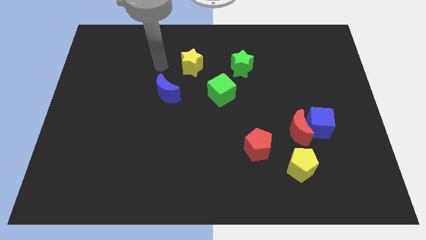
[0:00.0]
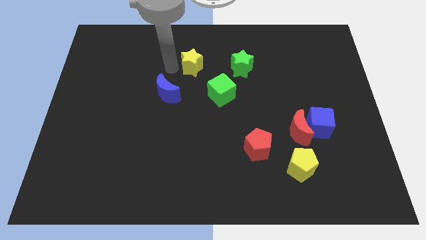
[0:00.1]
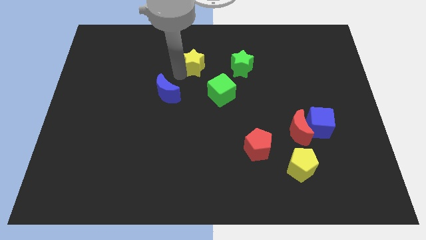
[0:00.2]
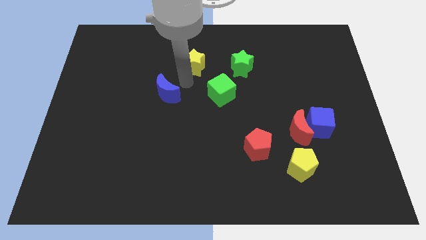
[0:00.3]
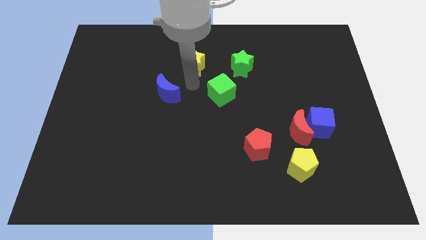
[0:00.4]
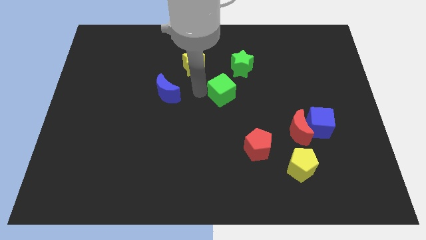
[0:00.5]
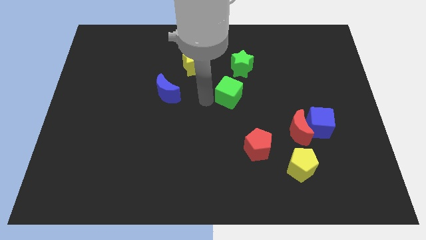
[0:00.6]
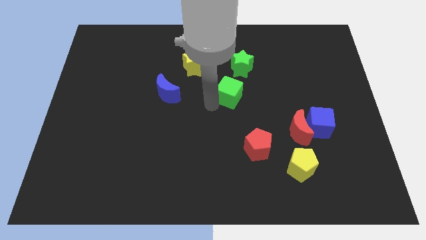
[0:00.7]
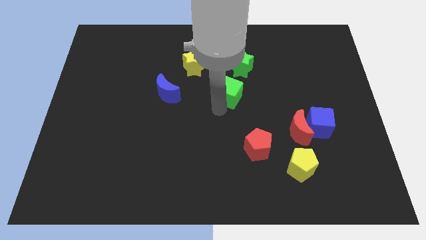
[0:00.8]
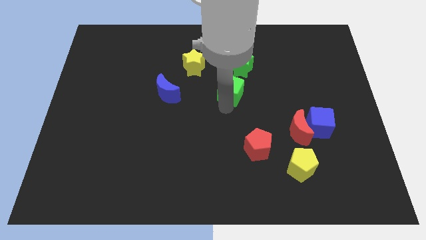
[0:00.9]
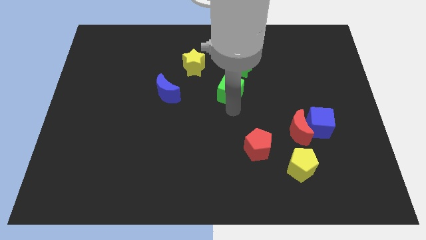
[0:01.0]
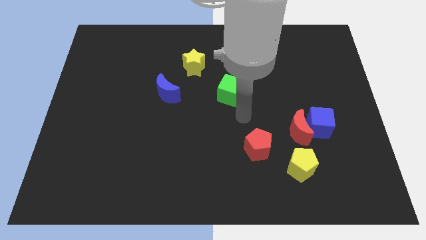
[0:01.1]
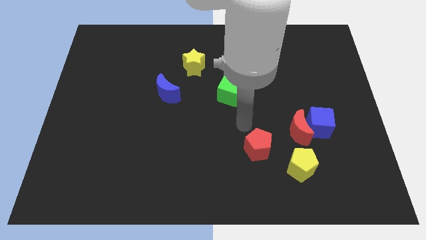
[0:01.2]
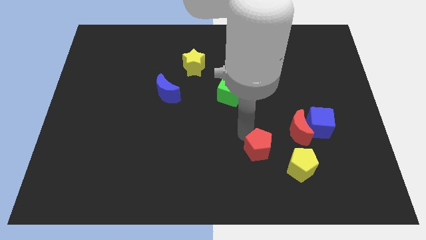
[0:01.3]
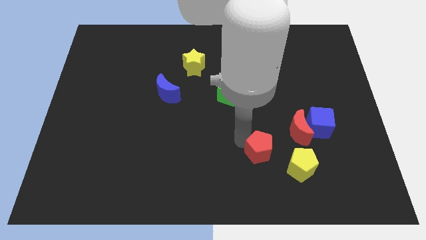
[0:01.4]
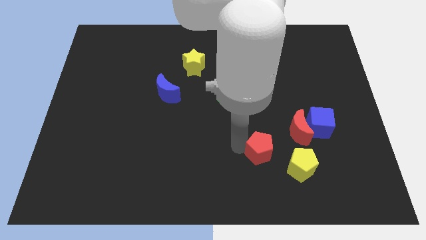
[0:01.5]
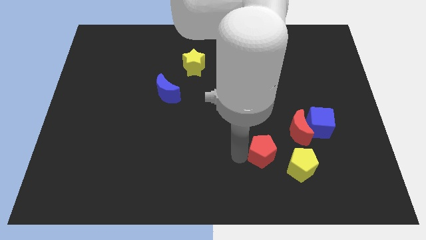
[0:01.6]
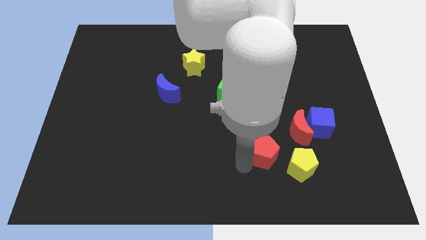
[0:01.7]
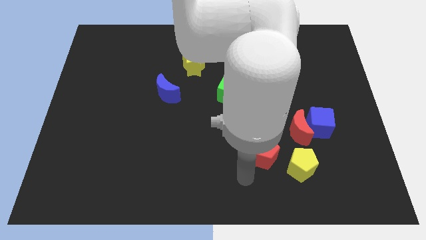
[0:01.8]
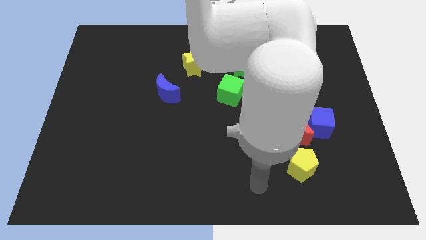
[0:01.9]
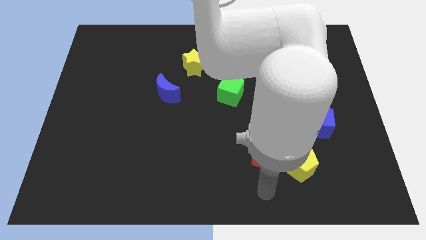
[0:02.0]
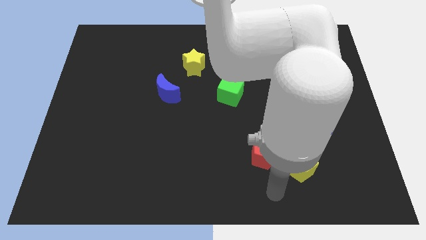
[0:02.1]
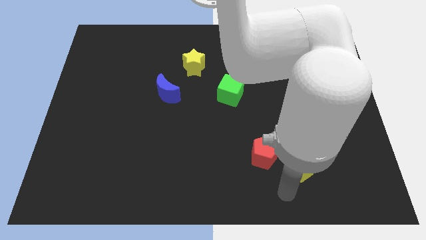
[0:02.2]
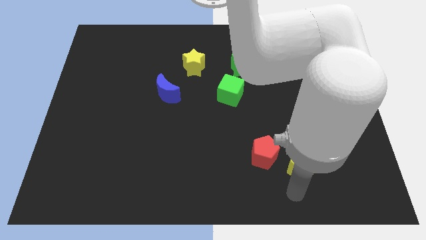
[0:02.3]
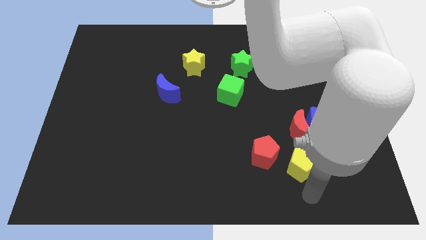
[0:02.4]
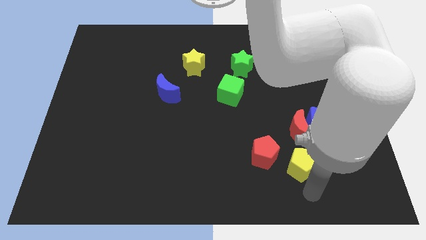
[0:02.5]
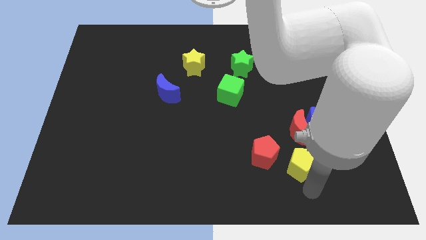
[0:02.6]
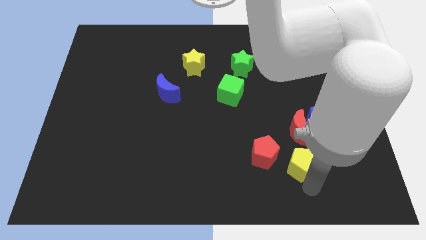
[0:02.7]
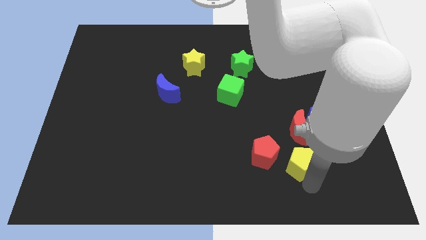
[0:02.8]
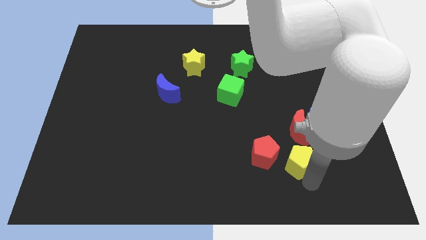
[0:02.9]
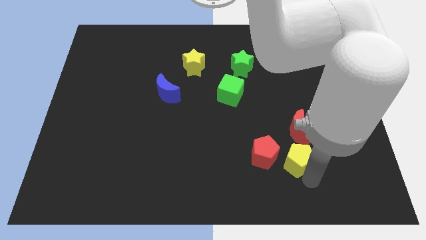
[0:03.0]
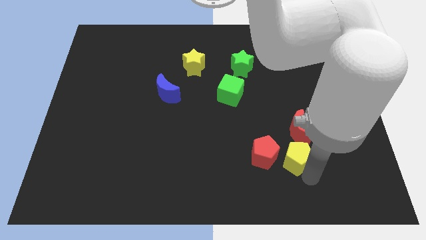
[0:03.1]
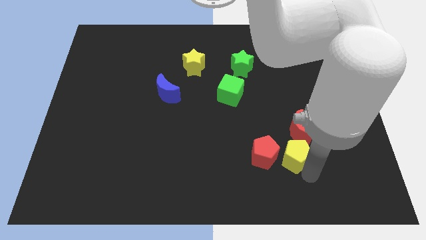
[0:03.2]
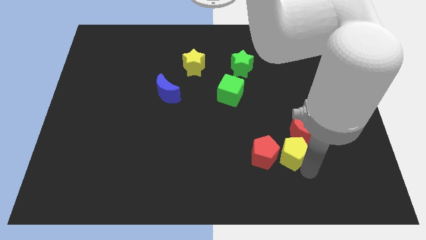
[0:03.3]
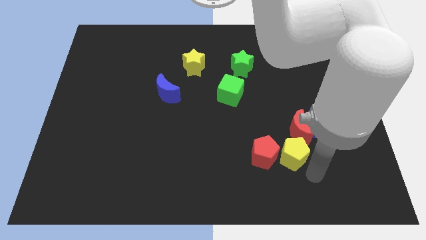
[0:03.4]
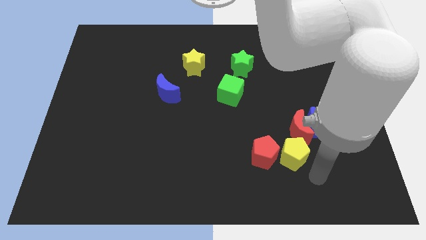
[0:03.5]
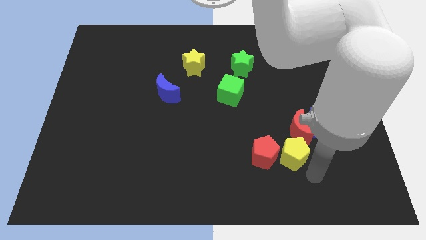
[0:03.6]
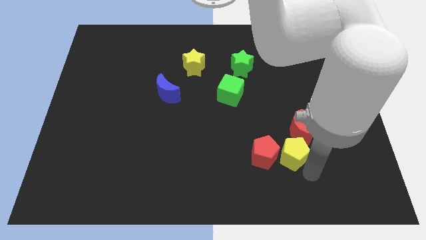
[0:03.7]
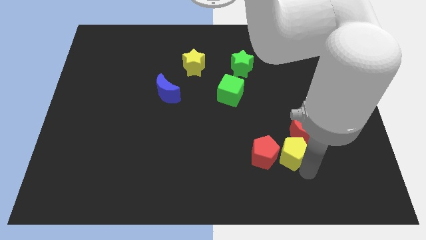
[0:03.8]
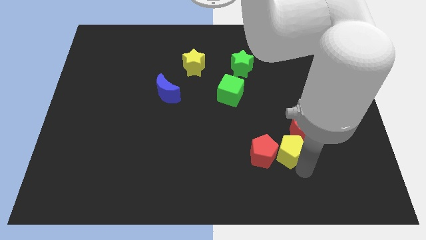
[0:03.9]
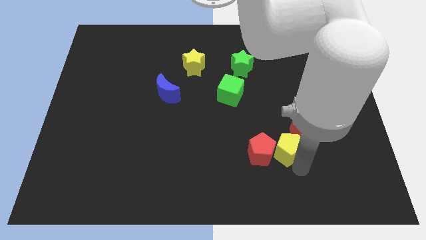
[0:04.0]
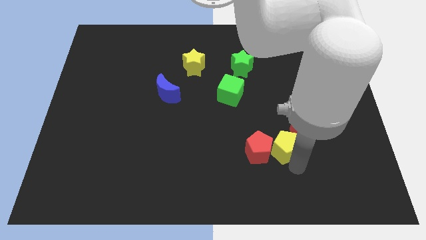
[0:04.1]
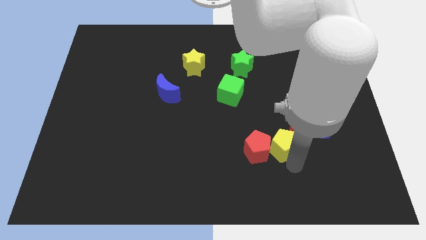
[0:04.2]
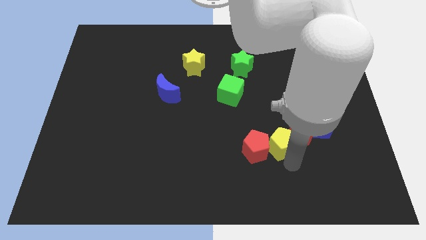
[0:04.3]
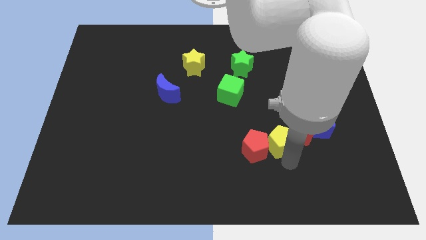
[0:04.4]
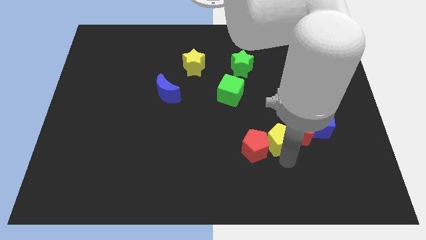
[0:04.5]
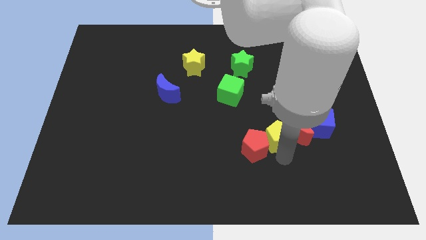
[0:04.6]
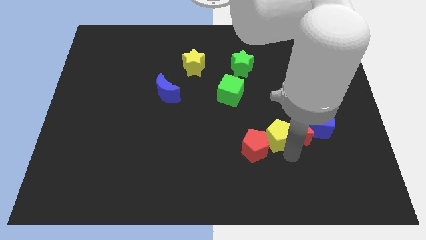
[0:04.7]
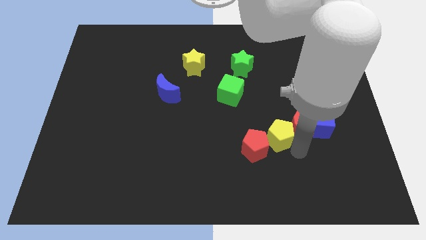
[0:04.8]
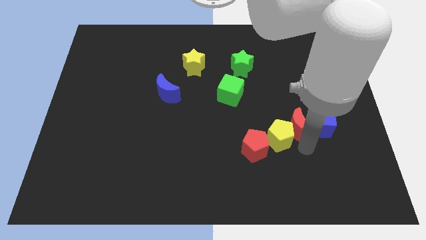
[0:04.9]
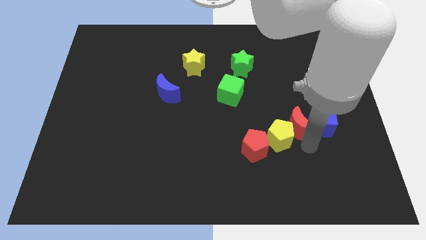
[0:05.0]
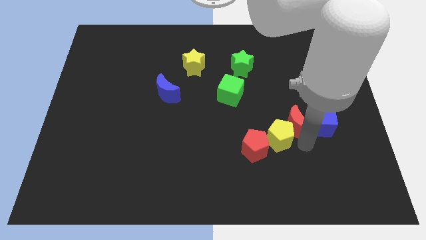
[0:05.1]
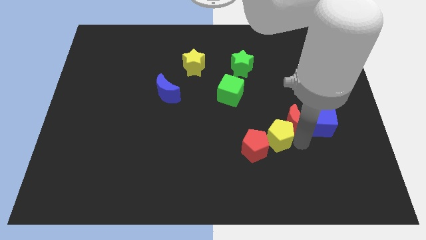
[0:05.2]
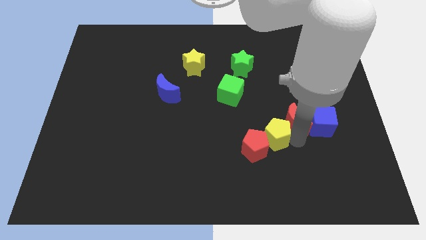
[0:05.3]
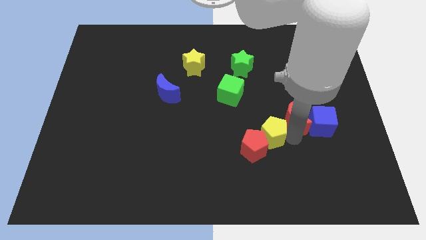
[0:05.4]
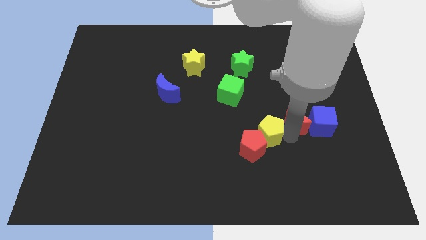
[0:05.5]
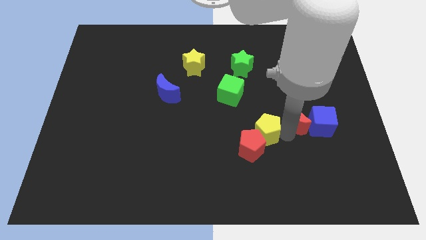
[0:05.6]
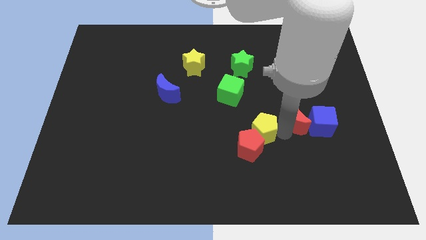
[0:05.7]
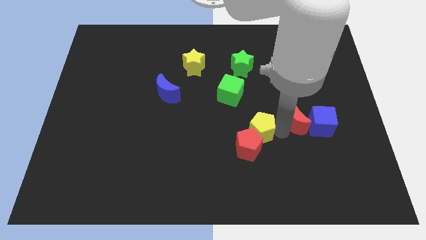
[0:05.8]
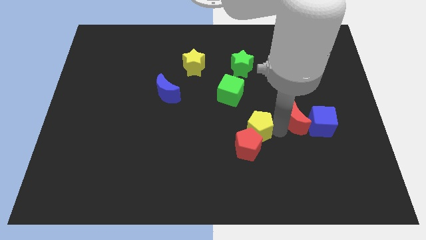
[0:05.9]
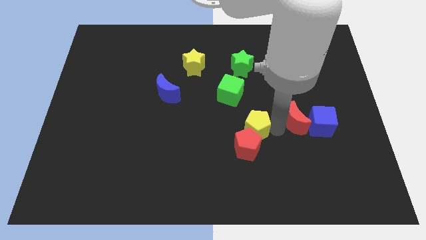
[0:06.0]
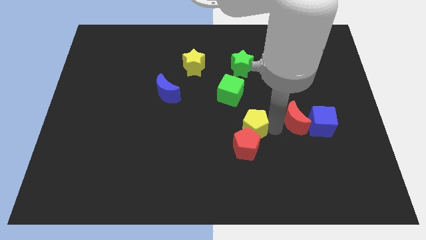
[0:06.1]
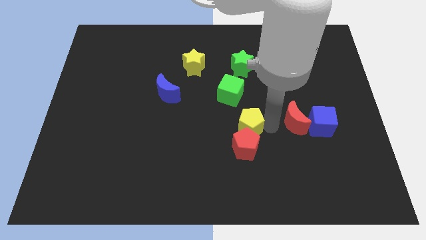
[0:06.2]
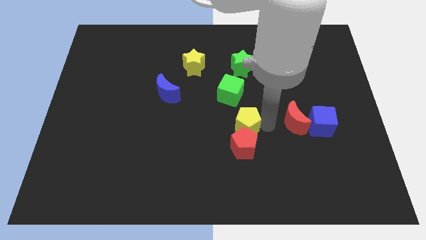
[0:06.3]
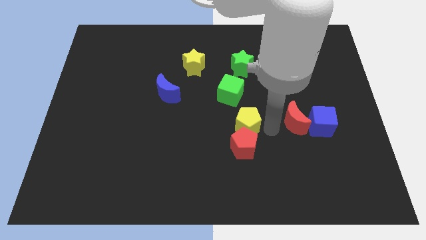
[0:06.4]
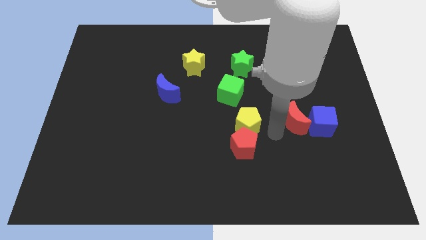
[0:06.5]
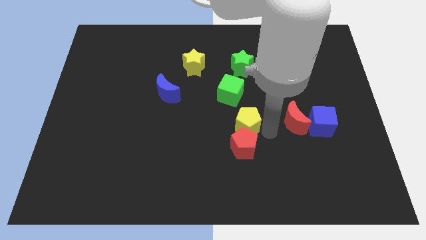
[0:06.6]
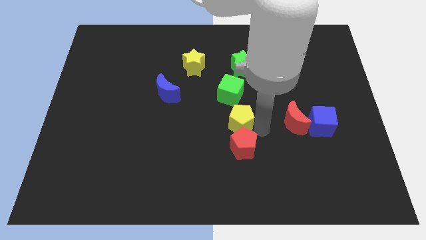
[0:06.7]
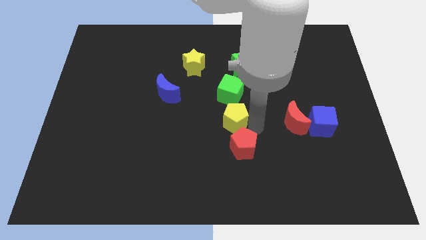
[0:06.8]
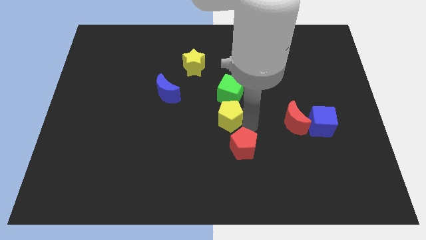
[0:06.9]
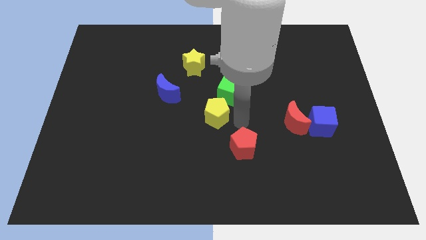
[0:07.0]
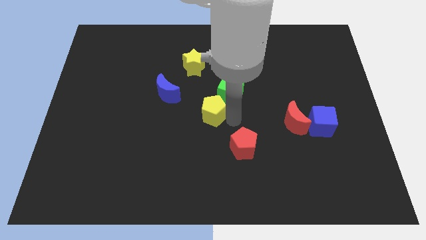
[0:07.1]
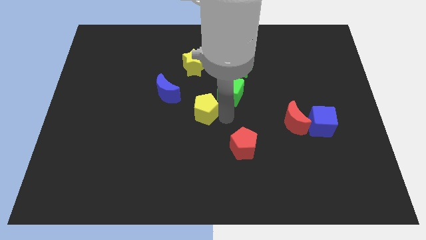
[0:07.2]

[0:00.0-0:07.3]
slide the yellow pentagon to the bottom right side of the blue moon
